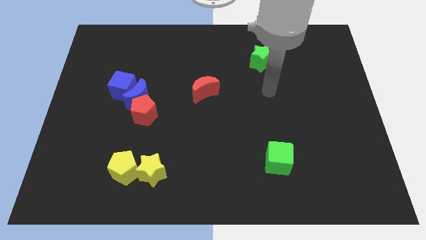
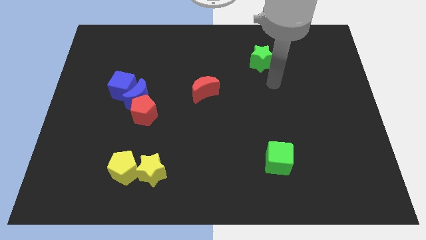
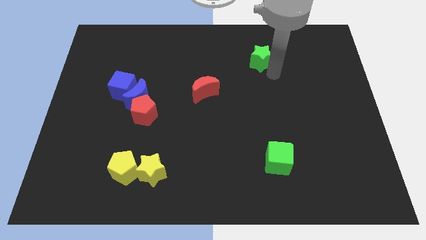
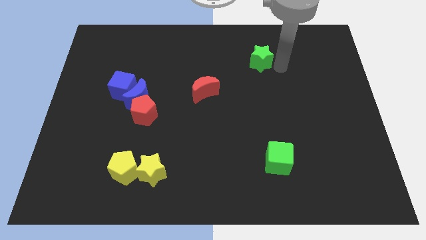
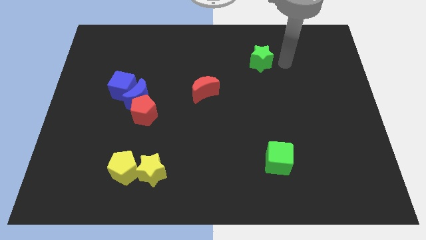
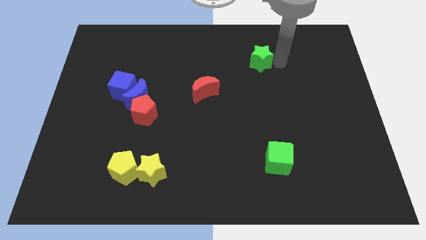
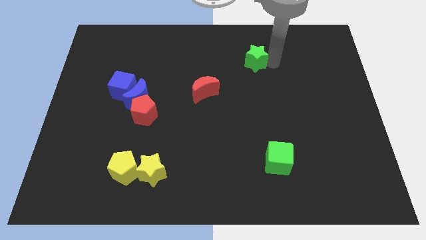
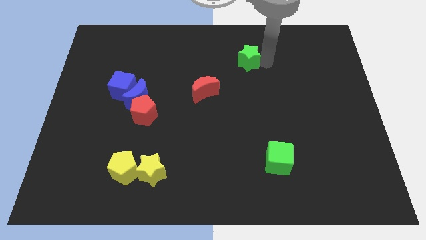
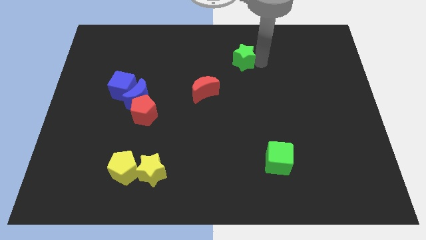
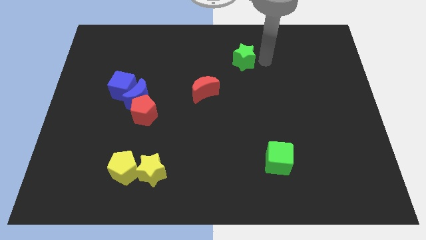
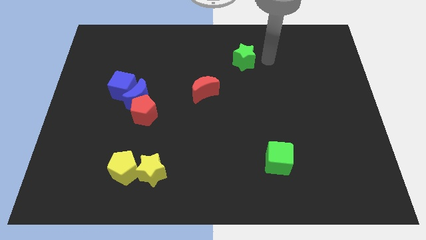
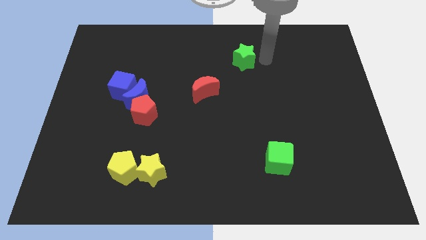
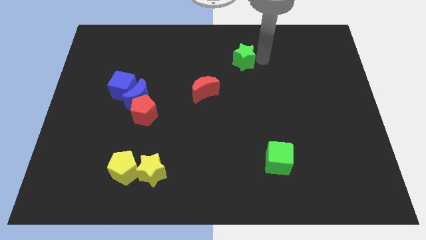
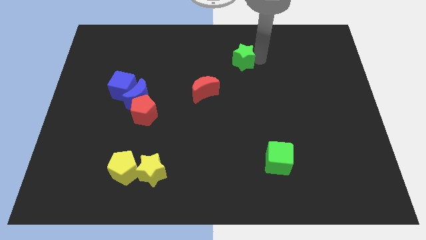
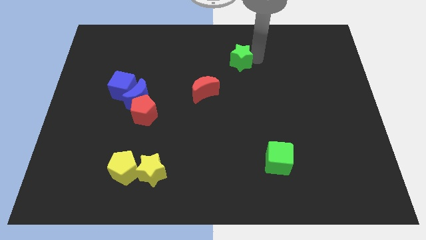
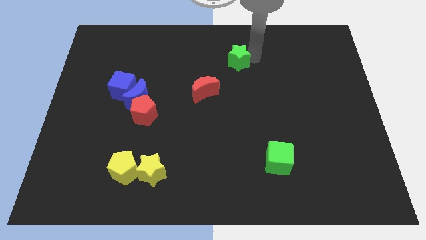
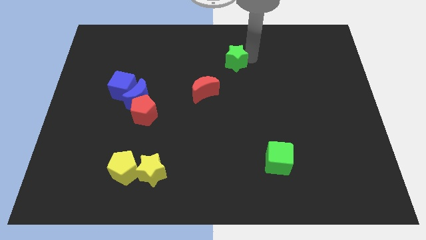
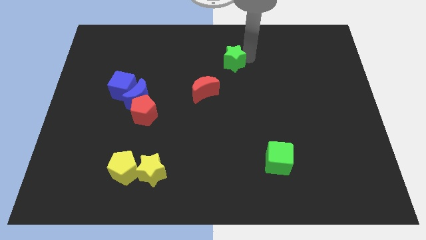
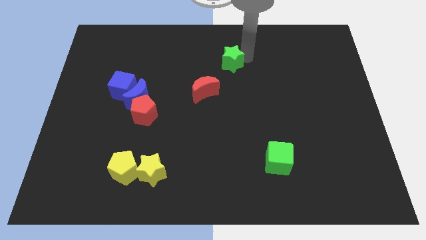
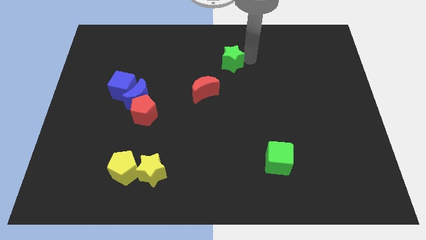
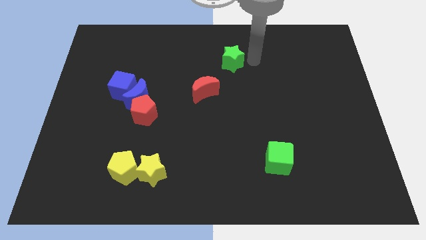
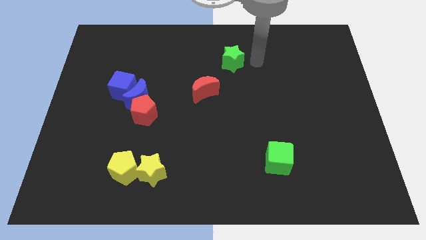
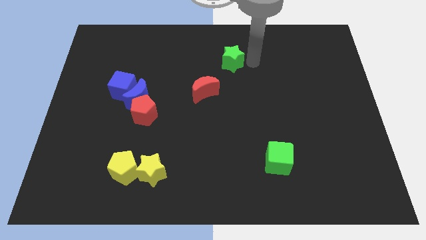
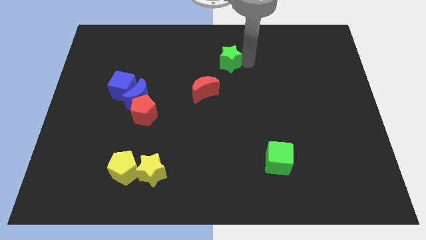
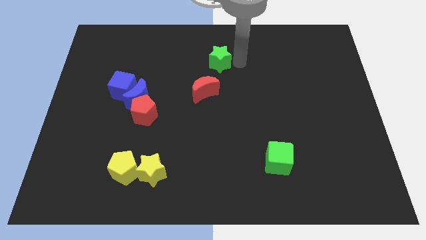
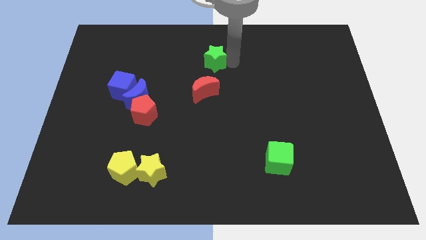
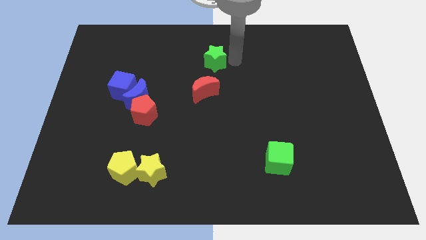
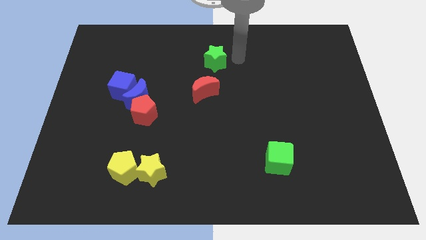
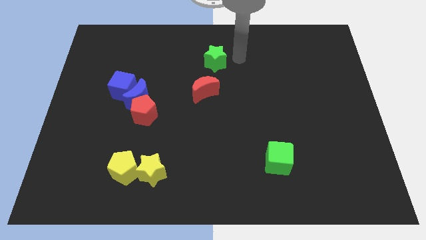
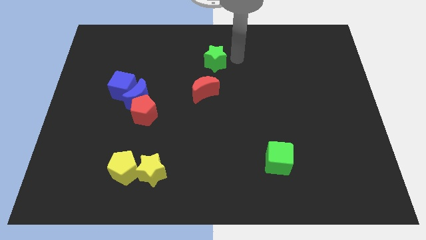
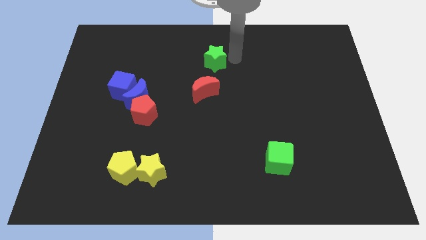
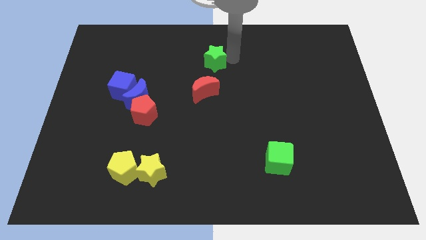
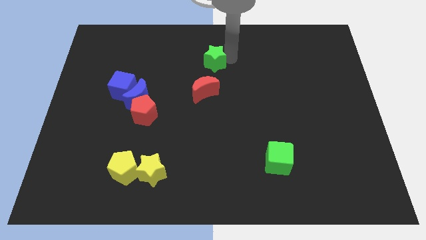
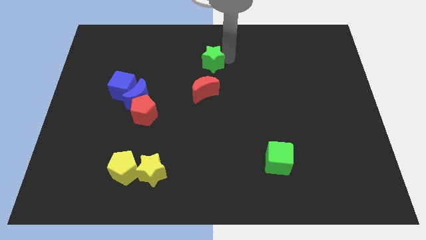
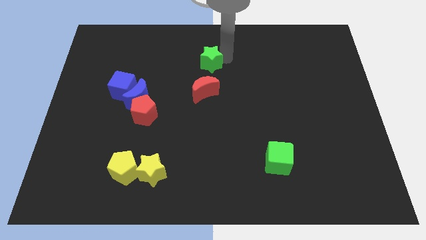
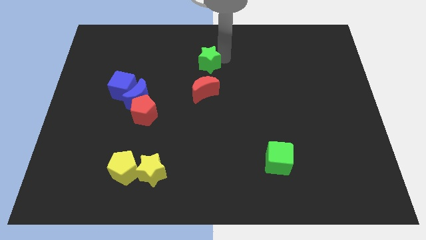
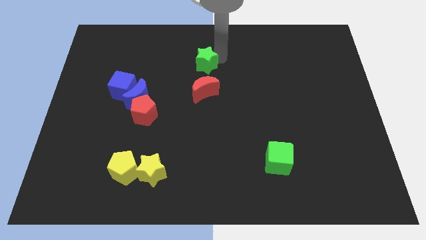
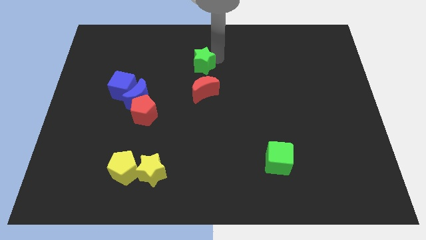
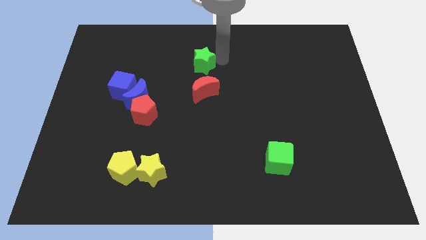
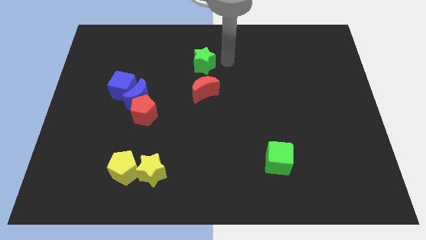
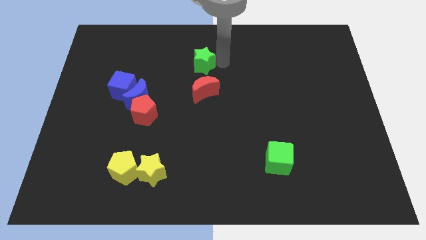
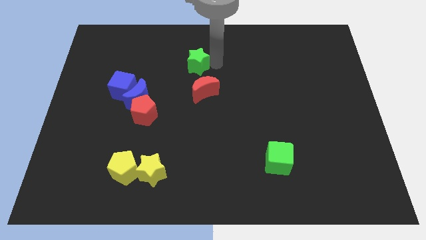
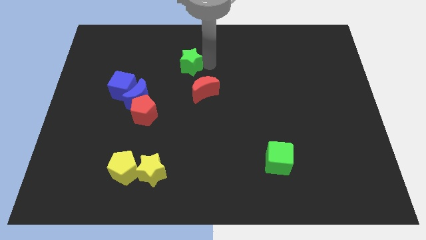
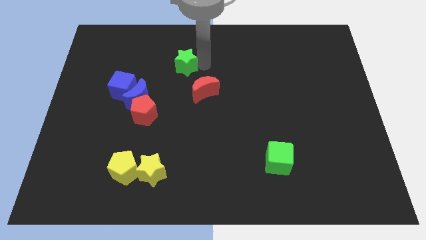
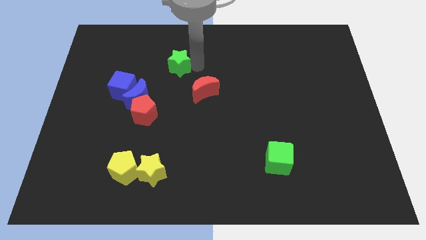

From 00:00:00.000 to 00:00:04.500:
slide the green star left

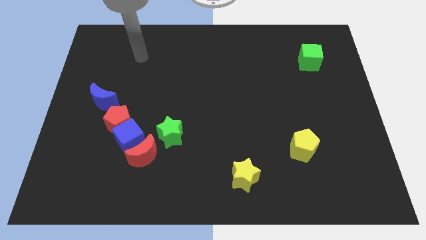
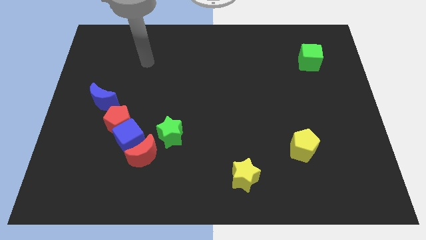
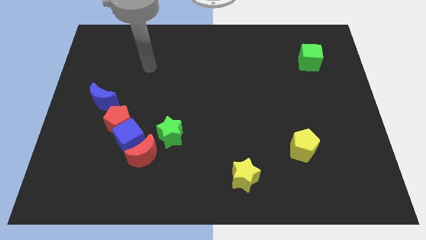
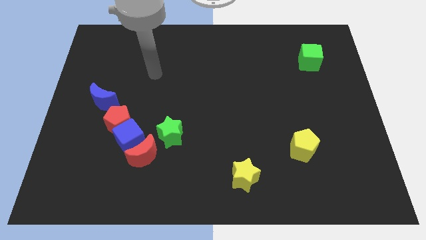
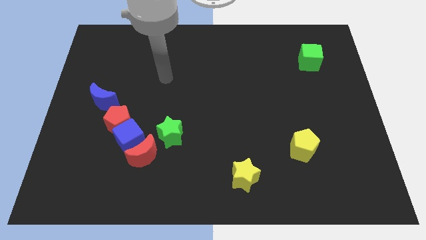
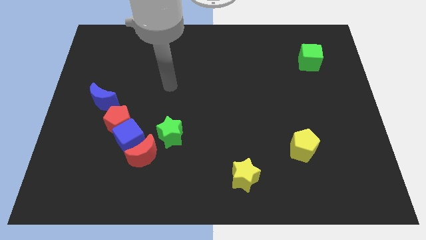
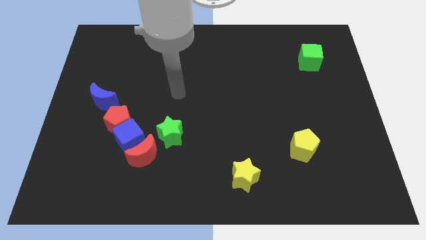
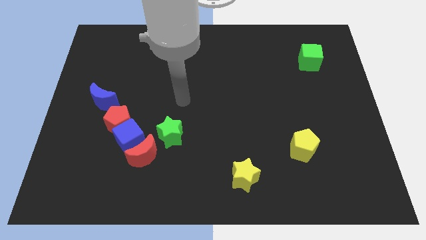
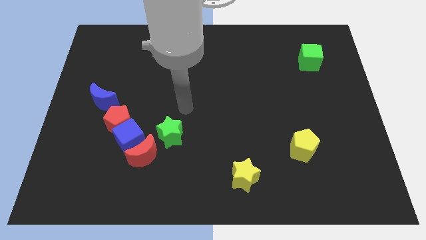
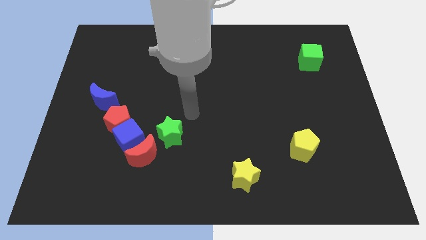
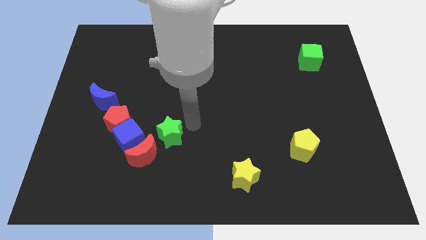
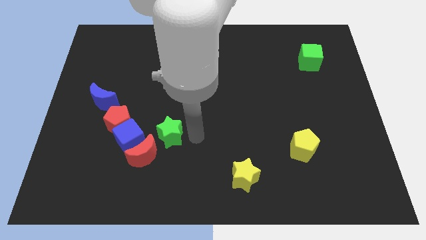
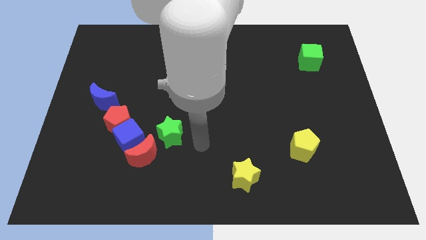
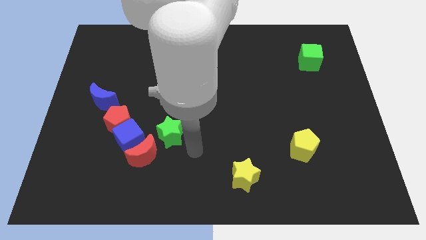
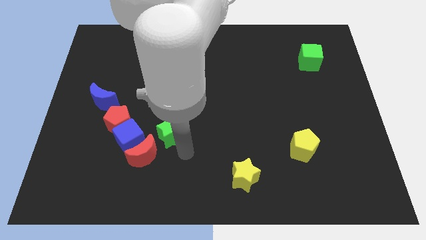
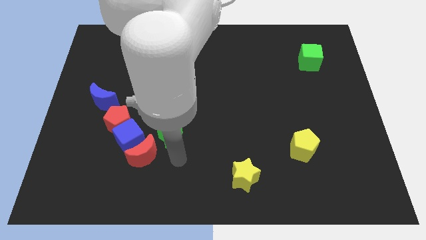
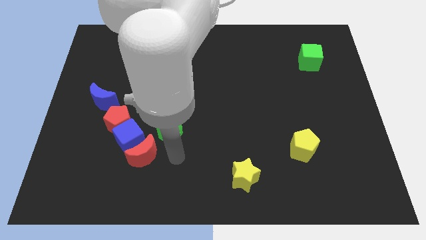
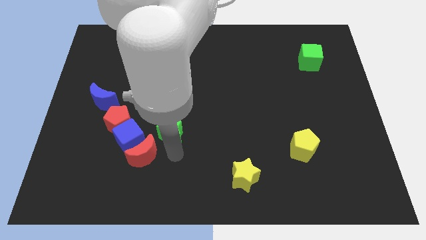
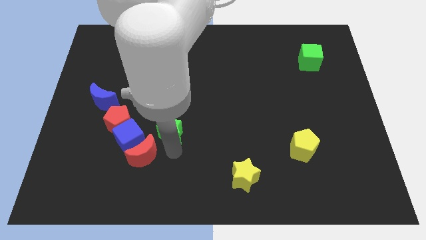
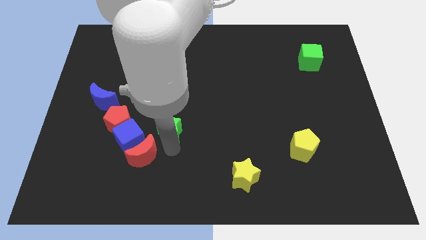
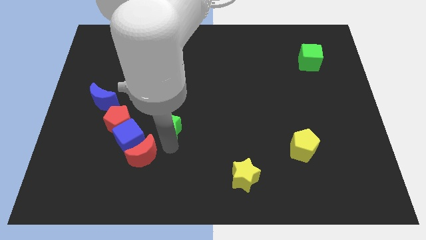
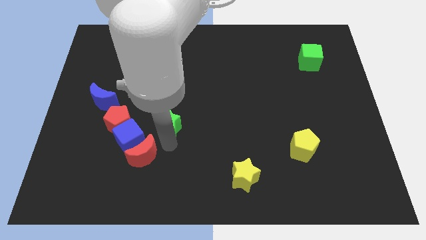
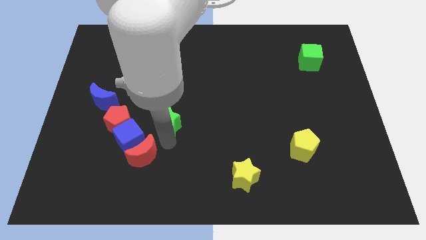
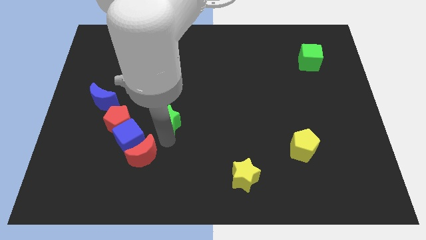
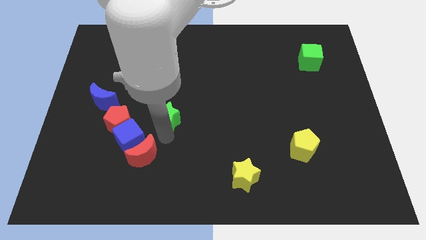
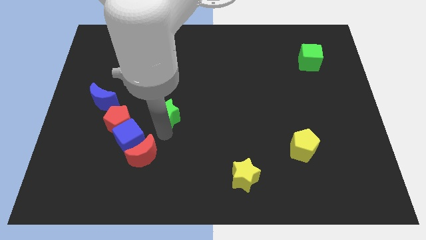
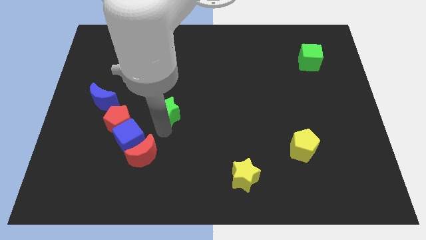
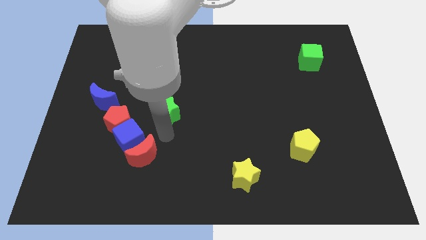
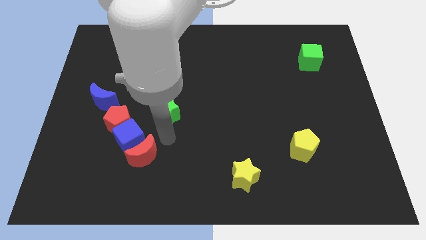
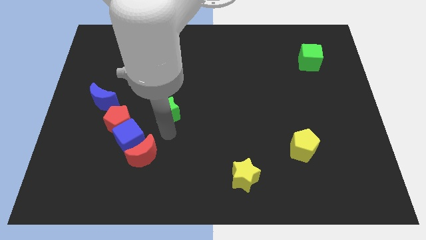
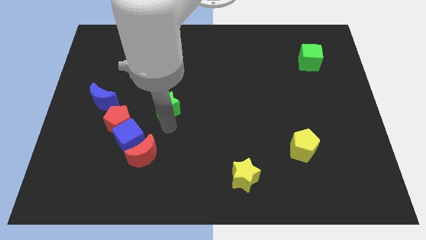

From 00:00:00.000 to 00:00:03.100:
slightly move the green star up
